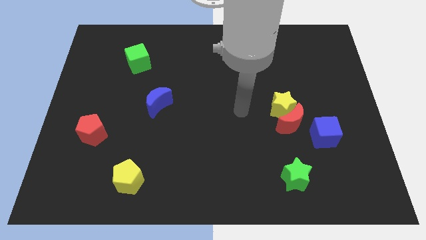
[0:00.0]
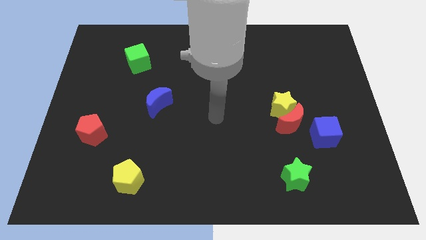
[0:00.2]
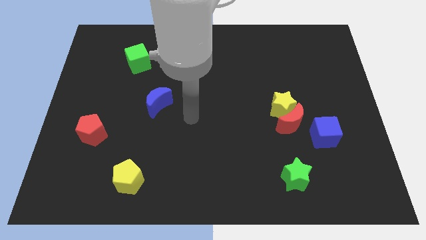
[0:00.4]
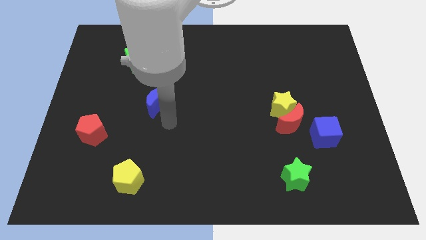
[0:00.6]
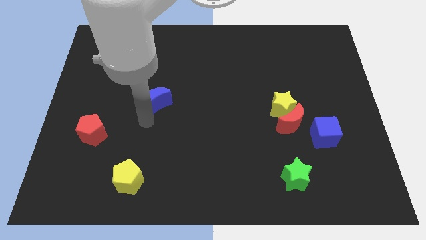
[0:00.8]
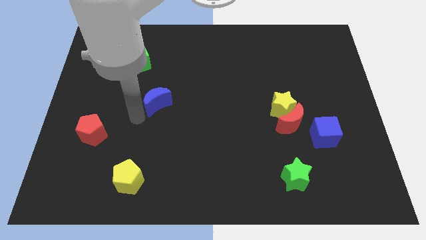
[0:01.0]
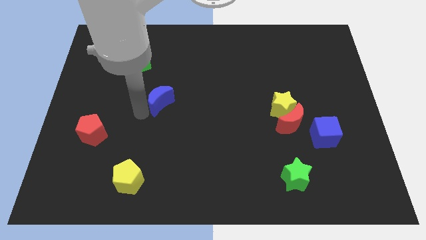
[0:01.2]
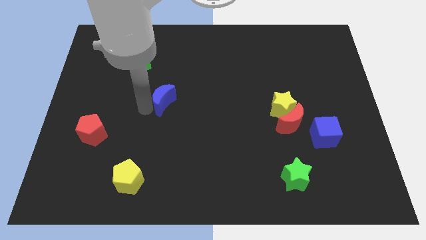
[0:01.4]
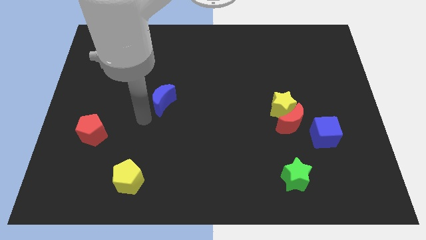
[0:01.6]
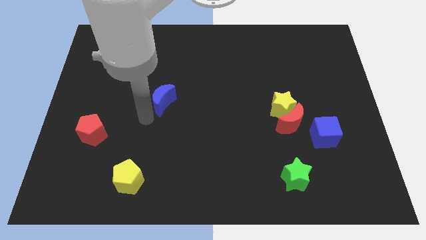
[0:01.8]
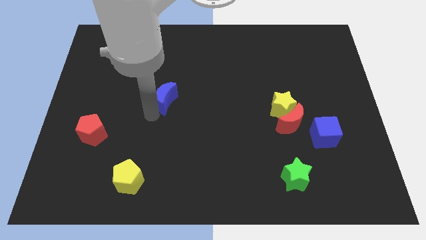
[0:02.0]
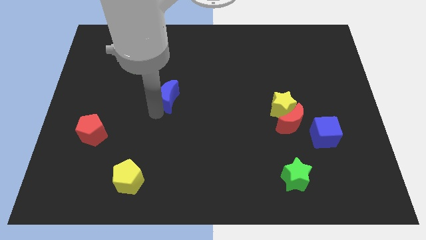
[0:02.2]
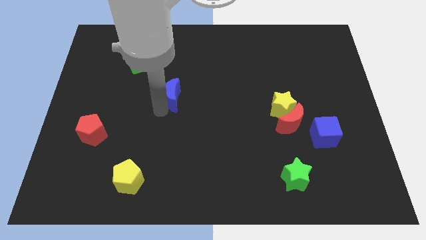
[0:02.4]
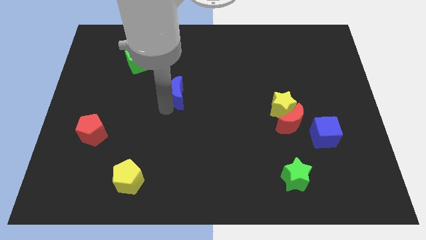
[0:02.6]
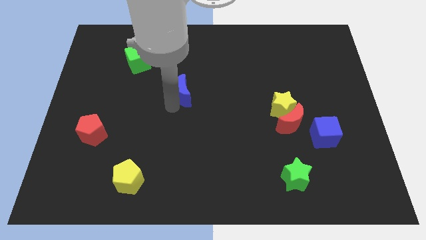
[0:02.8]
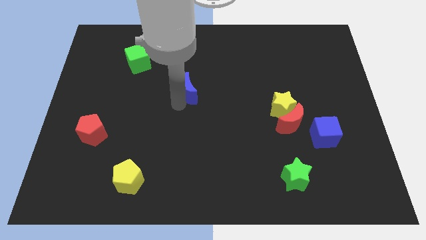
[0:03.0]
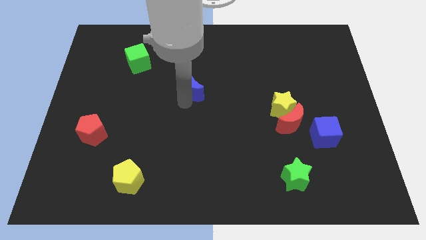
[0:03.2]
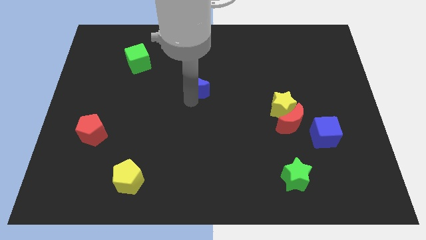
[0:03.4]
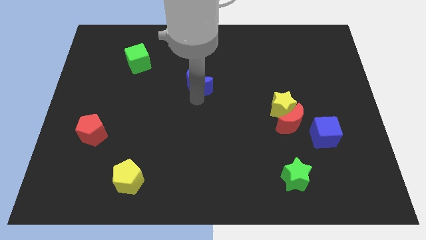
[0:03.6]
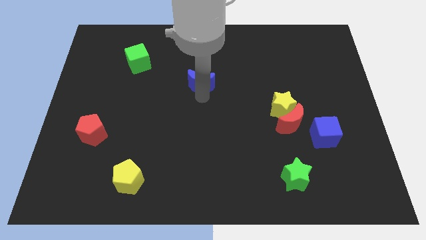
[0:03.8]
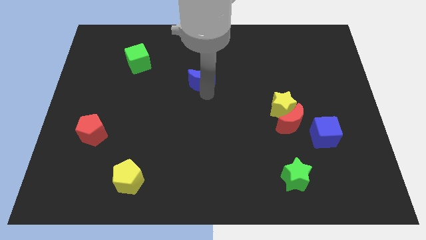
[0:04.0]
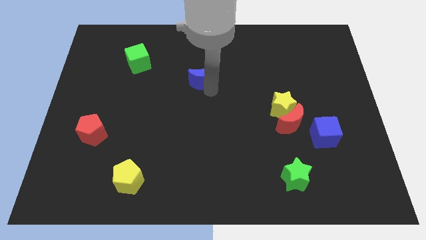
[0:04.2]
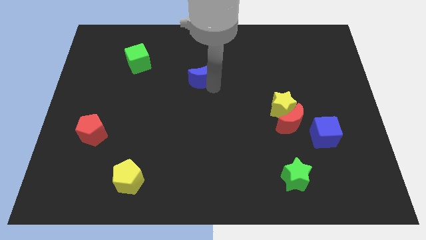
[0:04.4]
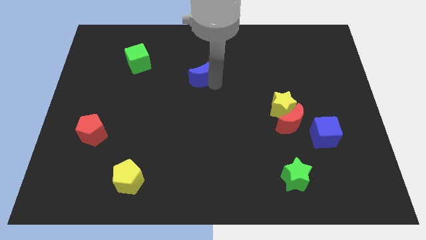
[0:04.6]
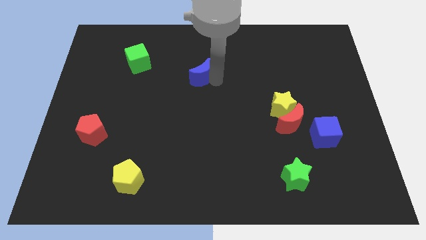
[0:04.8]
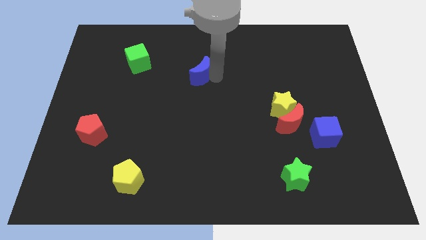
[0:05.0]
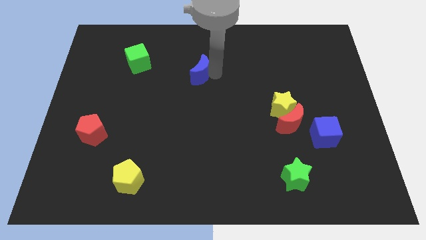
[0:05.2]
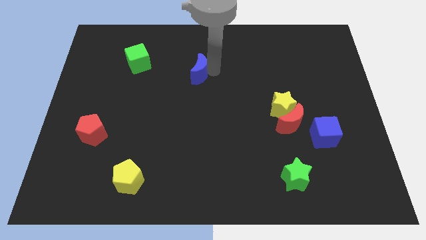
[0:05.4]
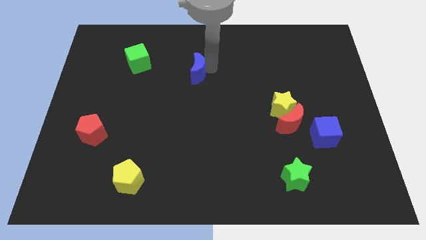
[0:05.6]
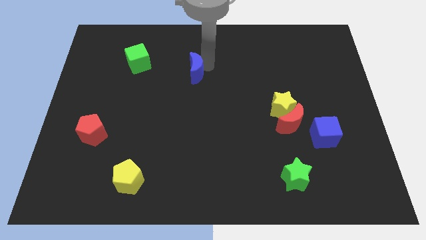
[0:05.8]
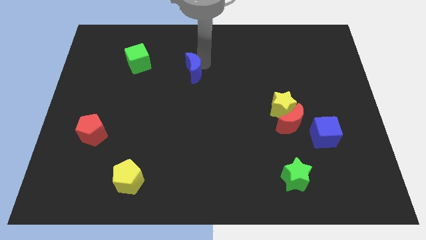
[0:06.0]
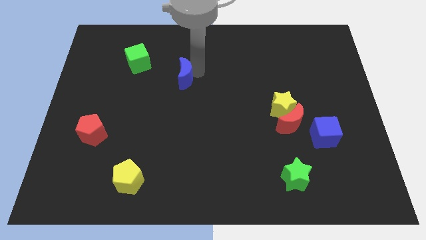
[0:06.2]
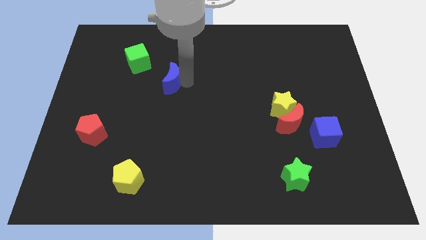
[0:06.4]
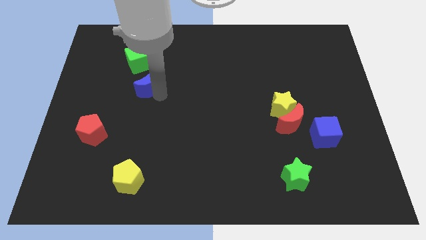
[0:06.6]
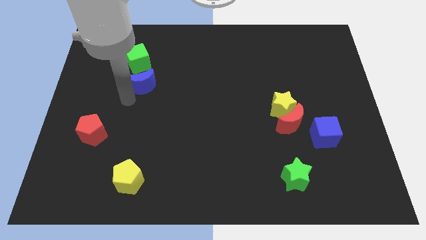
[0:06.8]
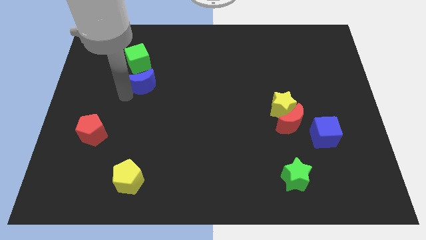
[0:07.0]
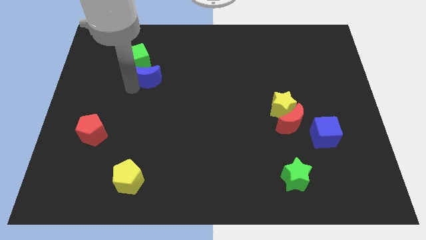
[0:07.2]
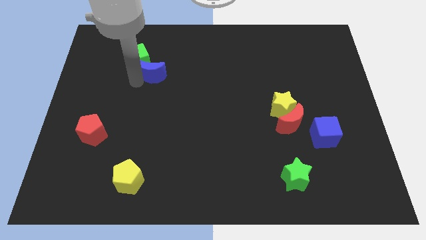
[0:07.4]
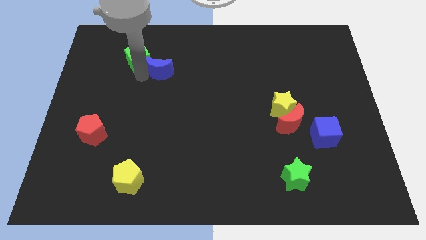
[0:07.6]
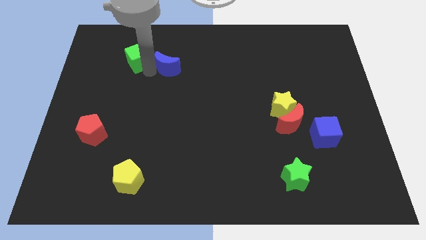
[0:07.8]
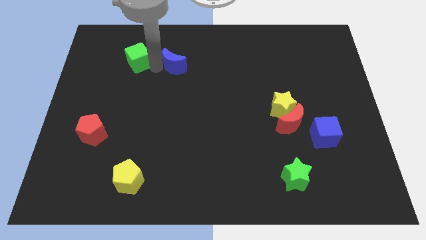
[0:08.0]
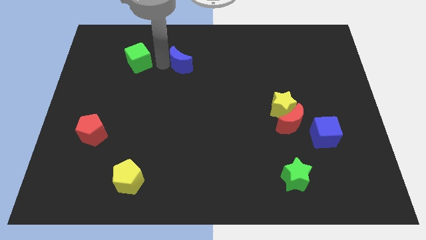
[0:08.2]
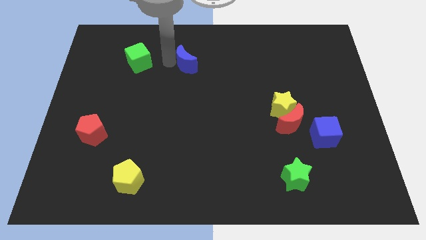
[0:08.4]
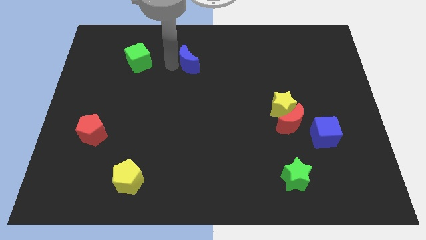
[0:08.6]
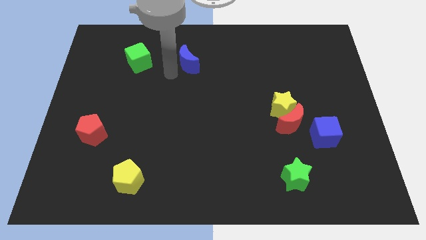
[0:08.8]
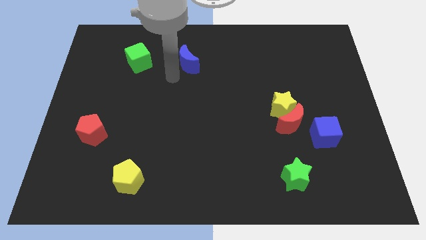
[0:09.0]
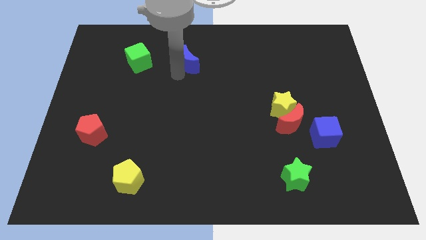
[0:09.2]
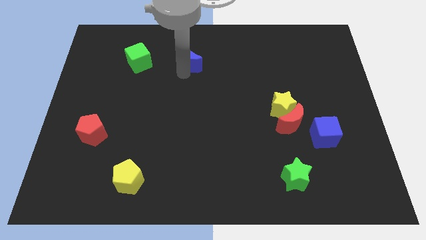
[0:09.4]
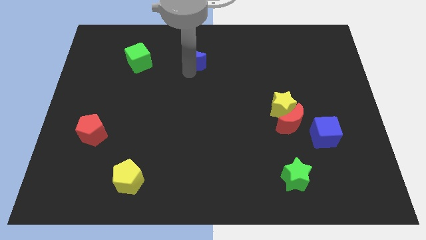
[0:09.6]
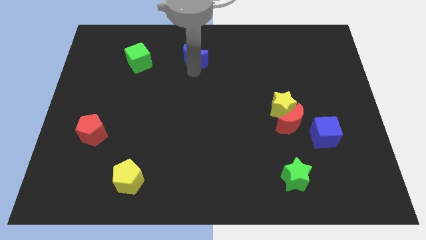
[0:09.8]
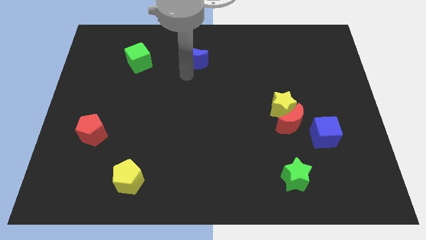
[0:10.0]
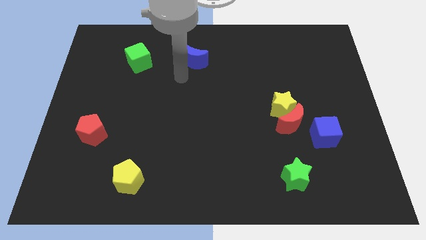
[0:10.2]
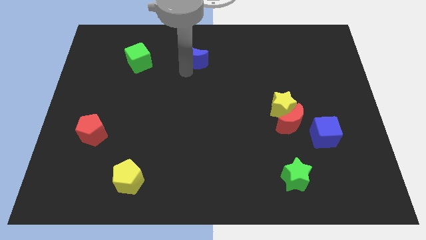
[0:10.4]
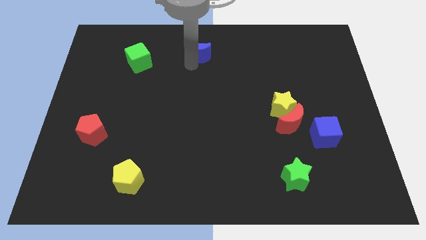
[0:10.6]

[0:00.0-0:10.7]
push the blue moon to the top

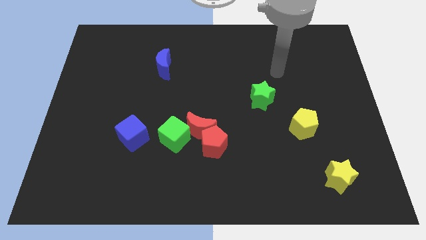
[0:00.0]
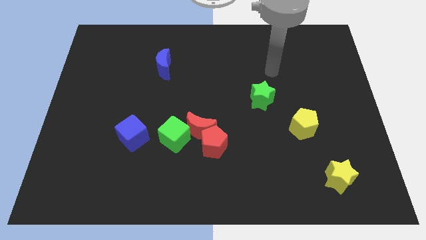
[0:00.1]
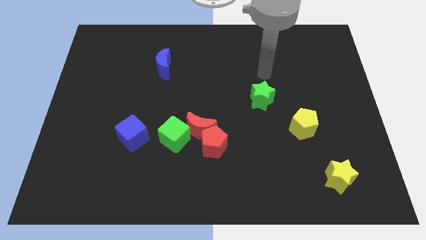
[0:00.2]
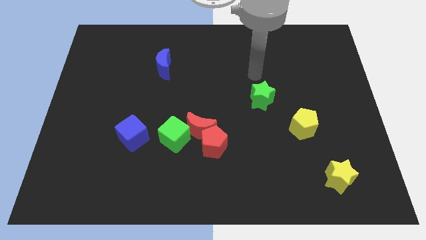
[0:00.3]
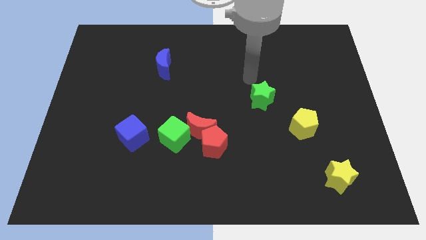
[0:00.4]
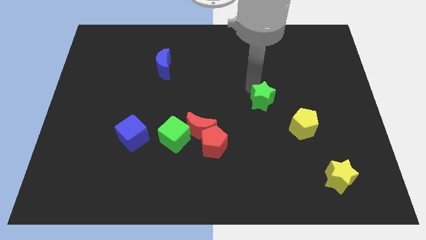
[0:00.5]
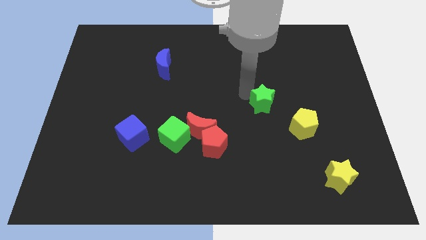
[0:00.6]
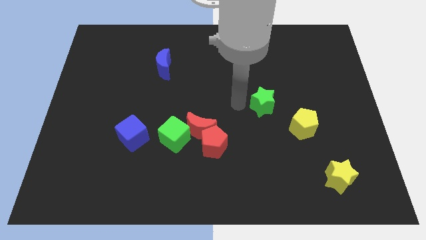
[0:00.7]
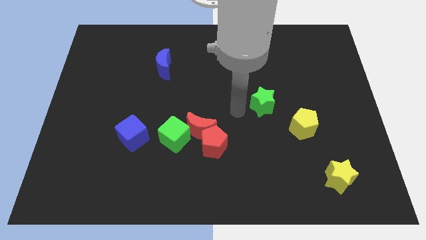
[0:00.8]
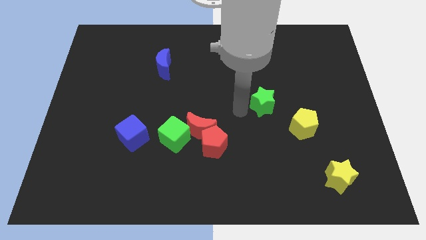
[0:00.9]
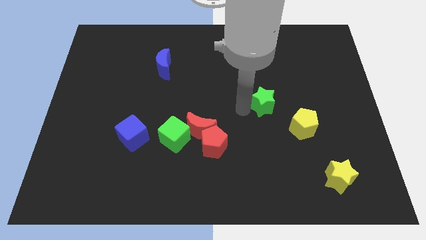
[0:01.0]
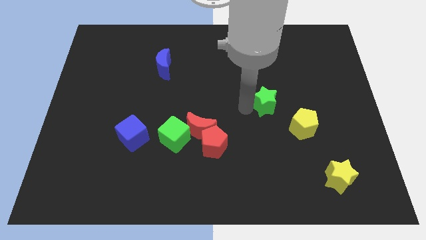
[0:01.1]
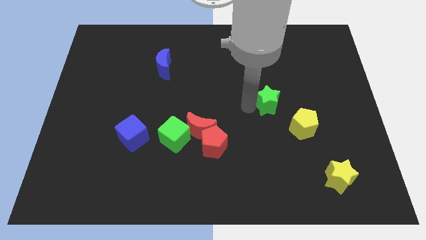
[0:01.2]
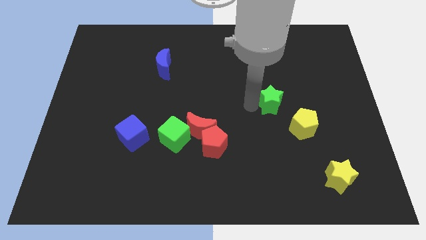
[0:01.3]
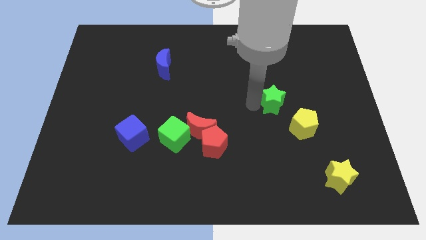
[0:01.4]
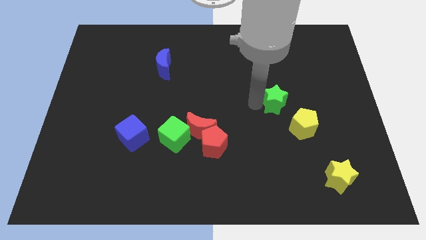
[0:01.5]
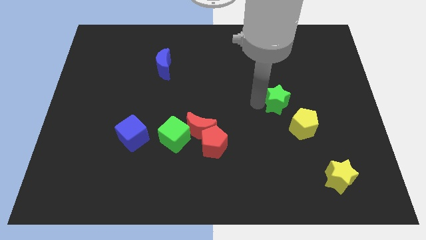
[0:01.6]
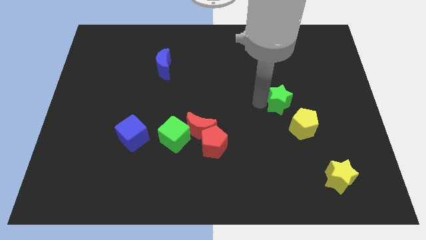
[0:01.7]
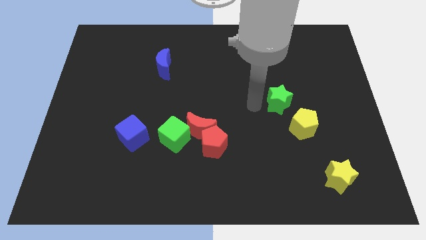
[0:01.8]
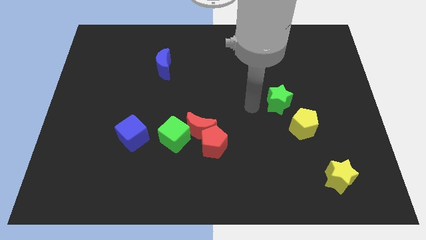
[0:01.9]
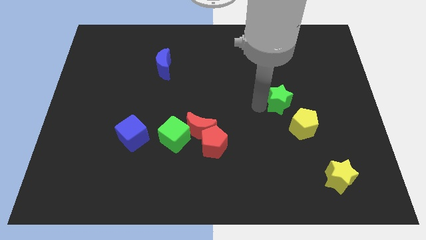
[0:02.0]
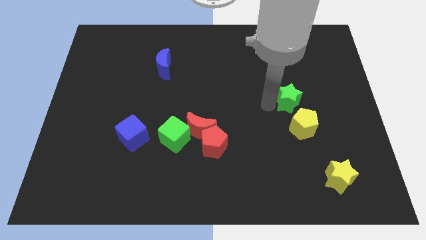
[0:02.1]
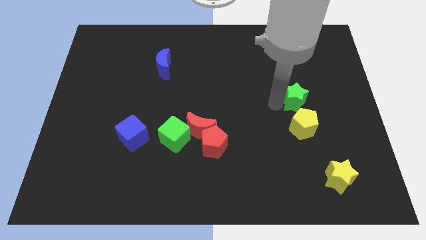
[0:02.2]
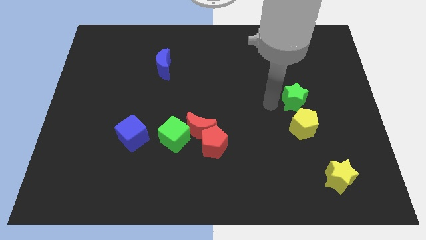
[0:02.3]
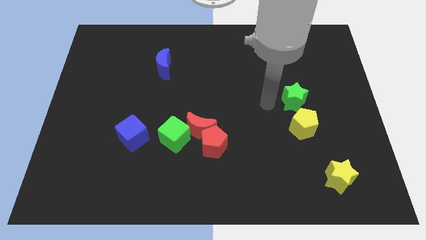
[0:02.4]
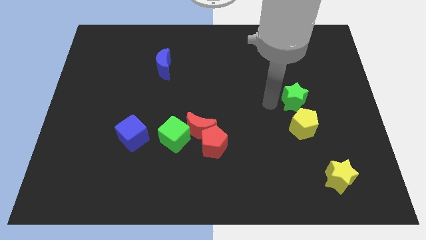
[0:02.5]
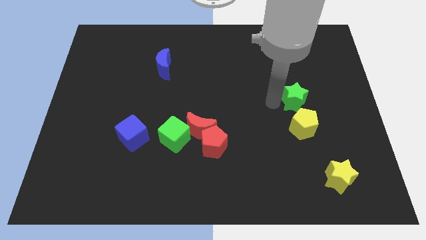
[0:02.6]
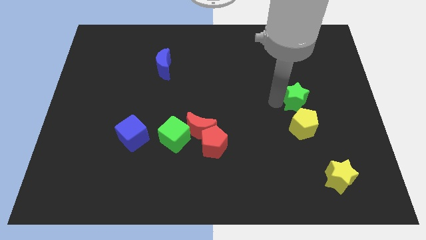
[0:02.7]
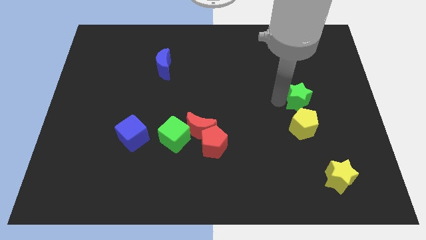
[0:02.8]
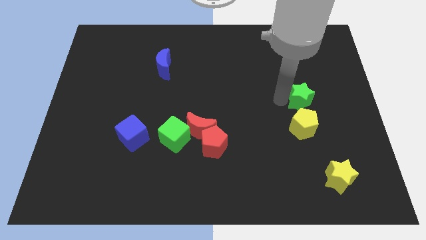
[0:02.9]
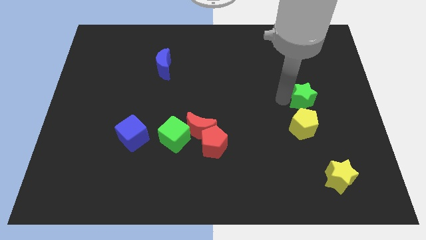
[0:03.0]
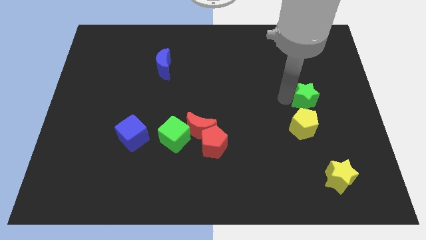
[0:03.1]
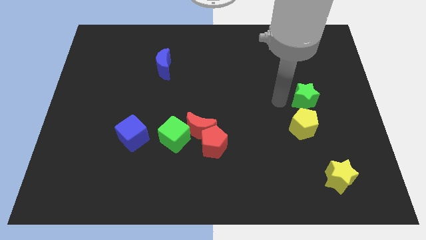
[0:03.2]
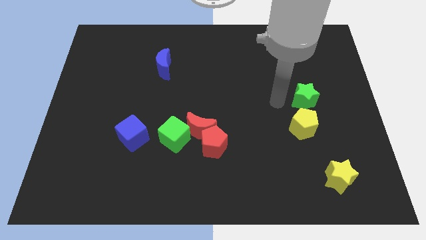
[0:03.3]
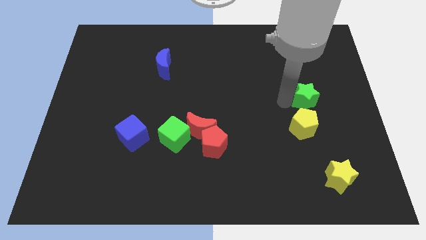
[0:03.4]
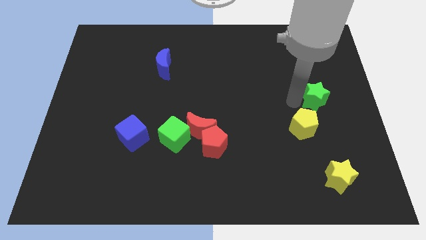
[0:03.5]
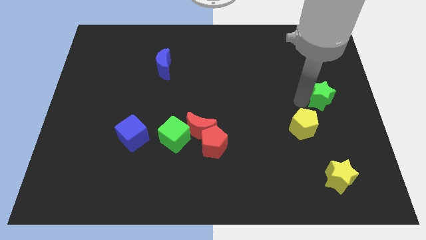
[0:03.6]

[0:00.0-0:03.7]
move the green star to the right side of the board
